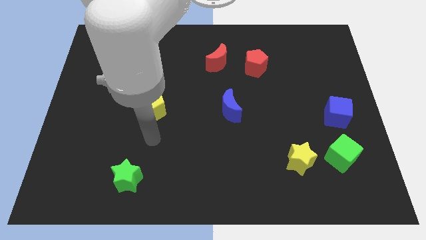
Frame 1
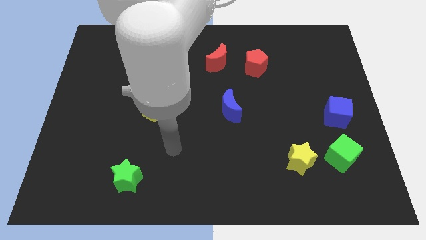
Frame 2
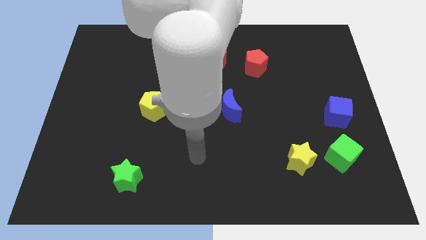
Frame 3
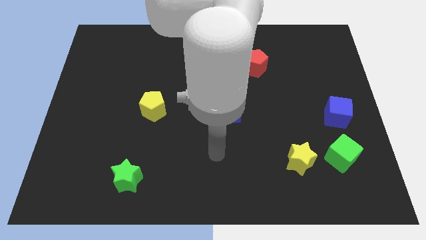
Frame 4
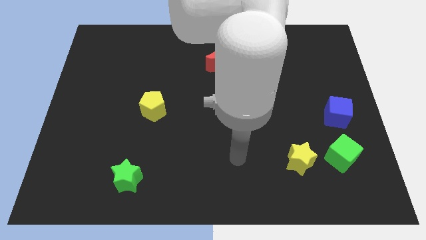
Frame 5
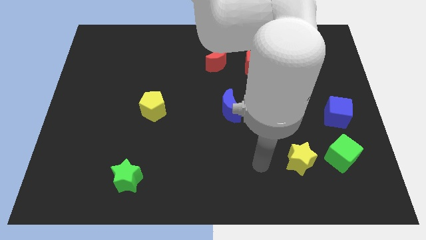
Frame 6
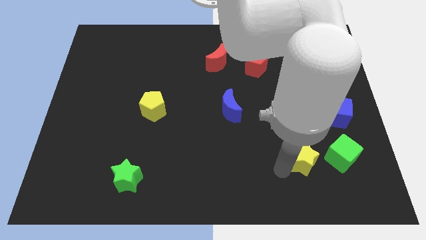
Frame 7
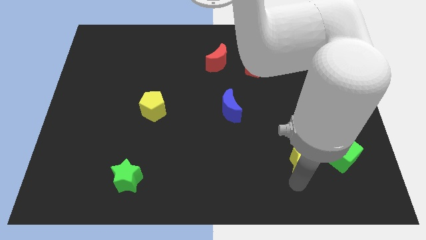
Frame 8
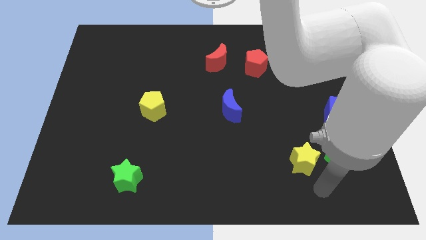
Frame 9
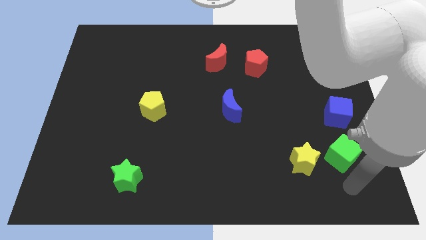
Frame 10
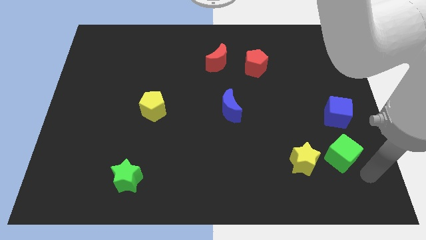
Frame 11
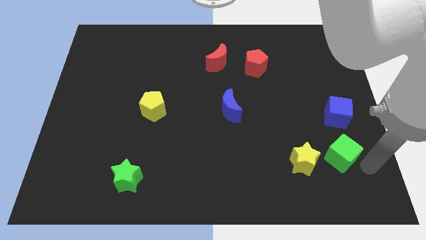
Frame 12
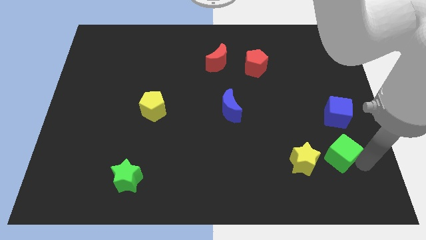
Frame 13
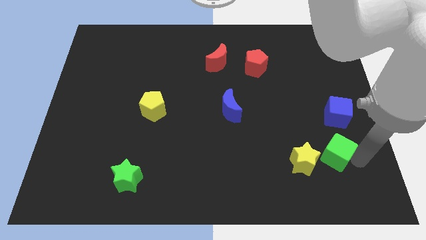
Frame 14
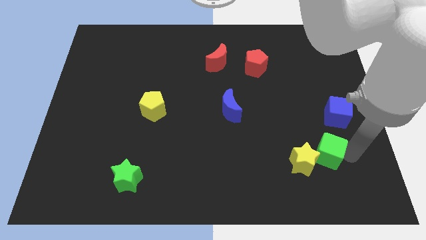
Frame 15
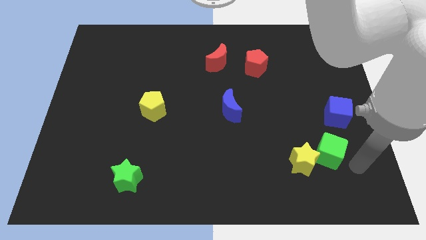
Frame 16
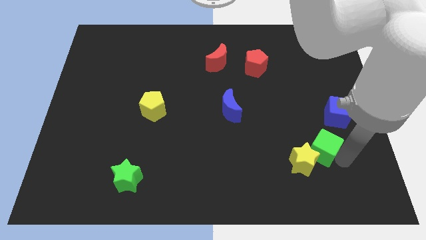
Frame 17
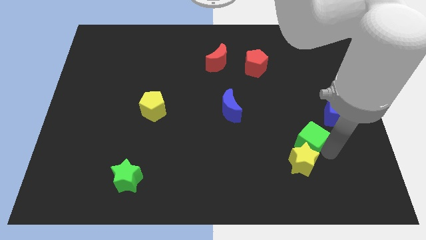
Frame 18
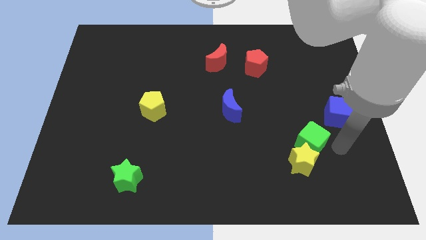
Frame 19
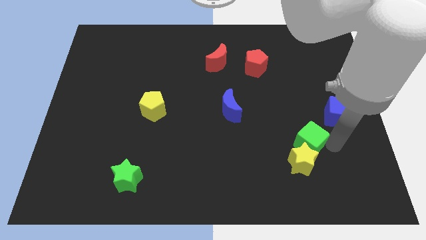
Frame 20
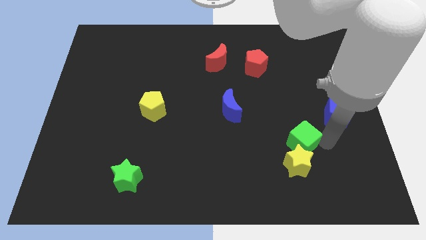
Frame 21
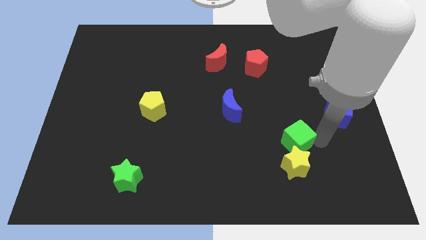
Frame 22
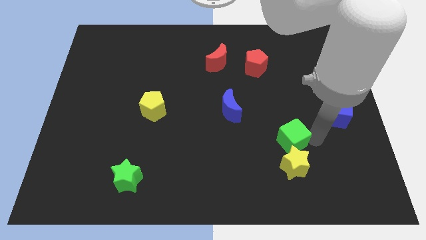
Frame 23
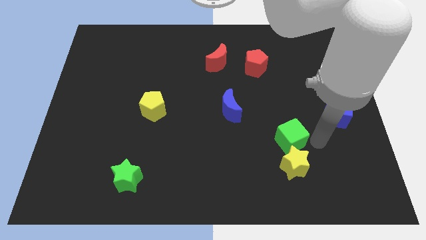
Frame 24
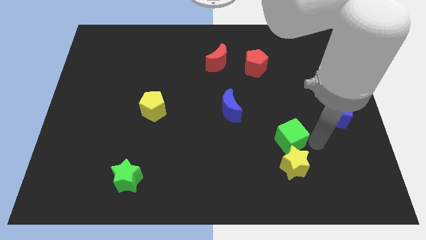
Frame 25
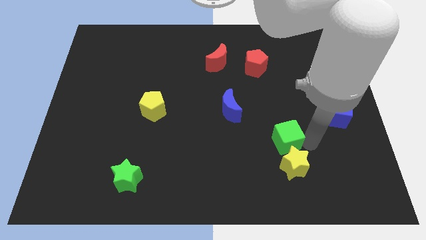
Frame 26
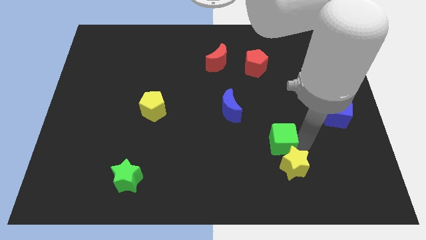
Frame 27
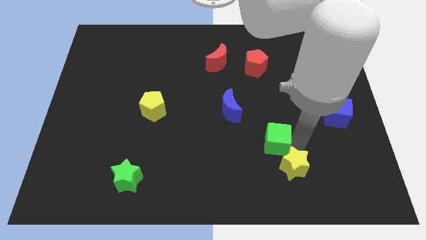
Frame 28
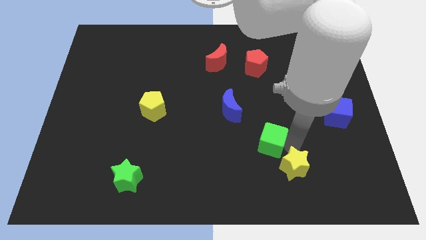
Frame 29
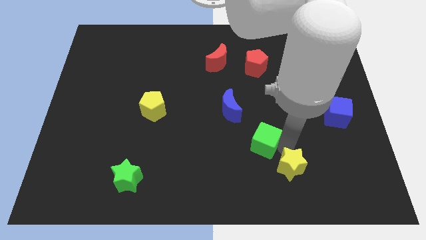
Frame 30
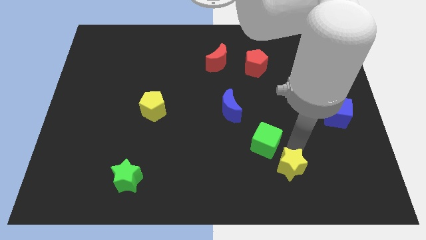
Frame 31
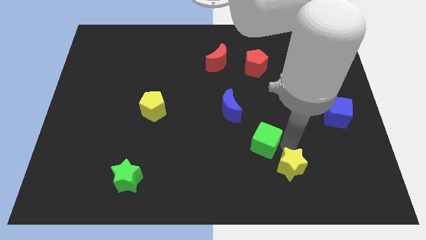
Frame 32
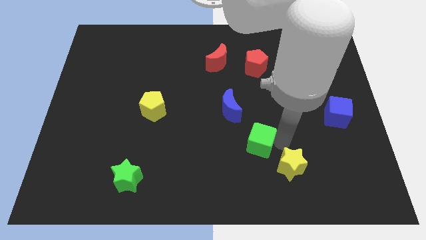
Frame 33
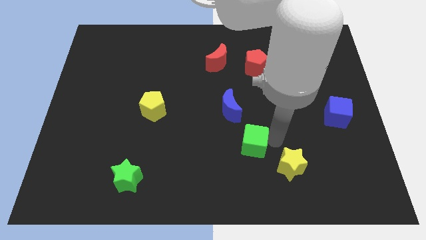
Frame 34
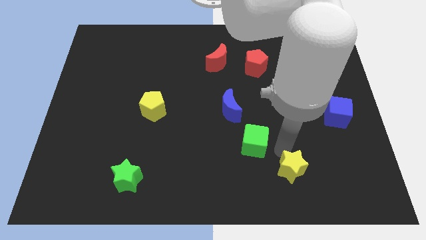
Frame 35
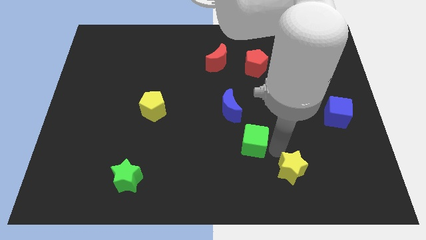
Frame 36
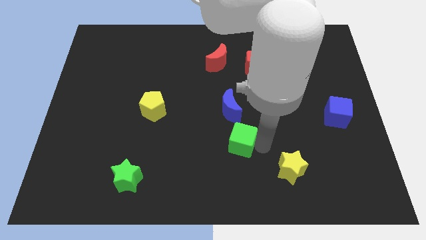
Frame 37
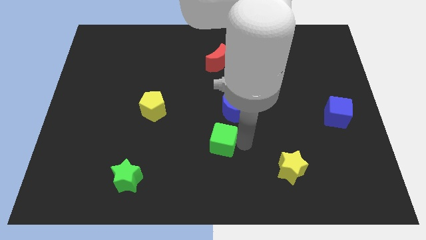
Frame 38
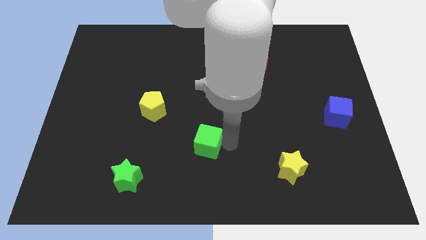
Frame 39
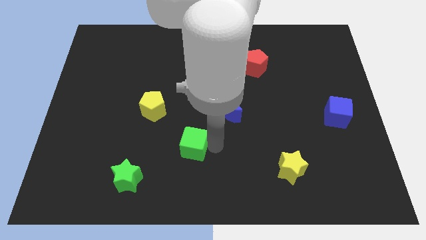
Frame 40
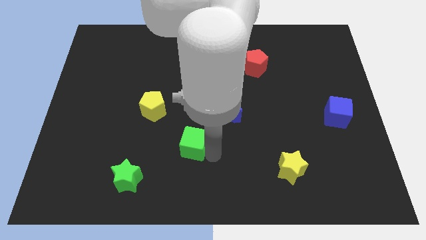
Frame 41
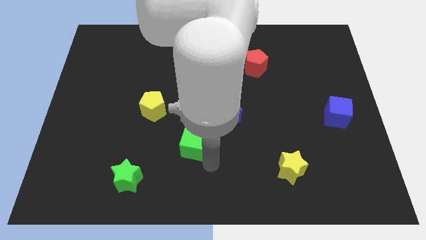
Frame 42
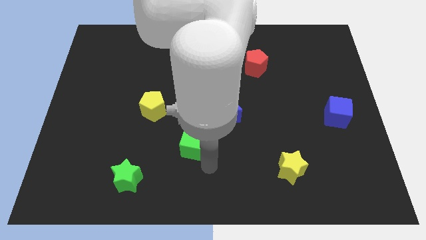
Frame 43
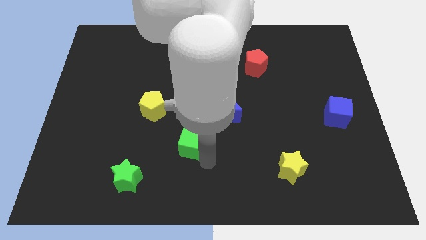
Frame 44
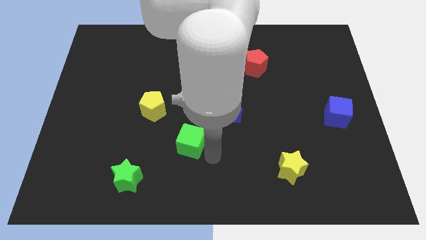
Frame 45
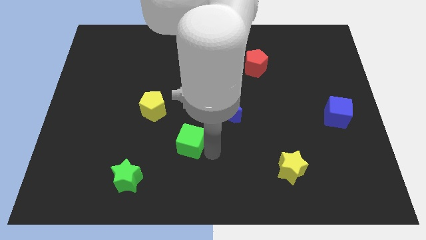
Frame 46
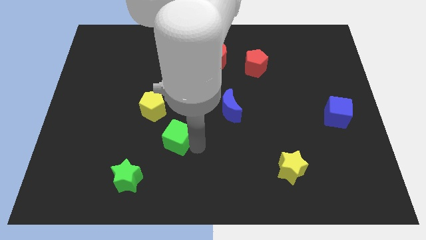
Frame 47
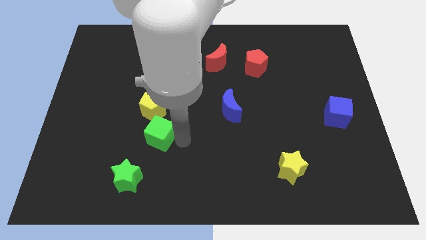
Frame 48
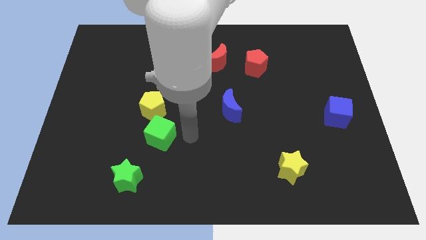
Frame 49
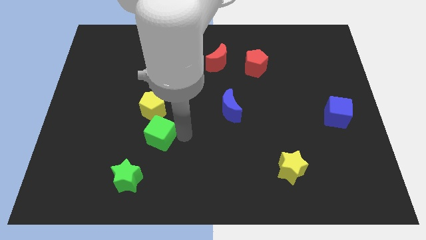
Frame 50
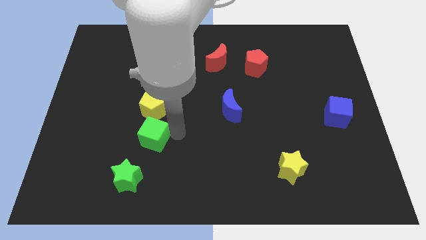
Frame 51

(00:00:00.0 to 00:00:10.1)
slide the green cube above the green star

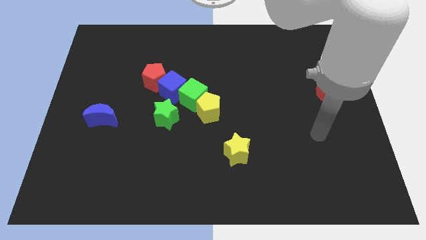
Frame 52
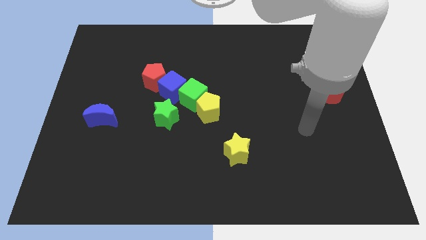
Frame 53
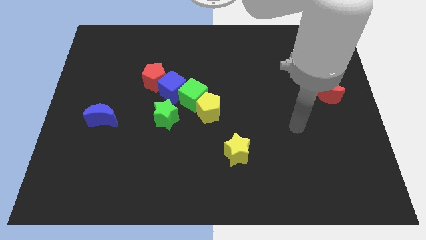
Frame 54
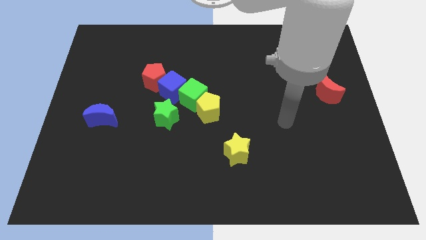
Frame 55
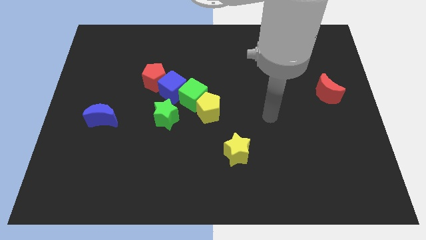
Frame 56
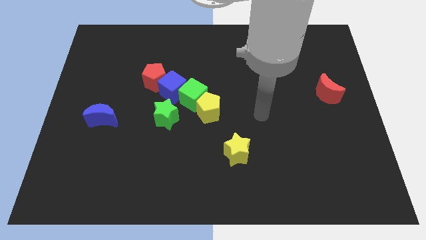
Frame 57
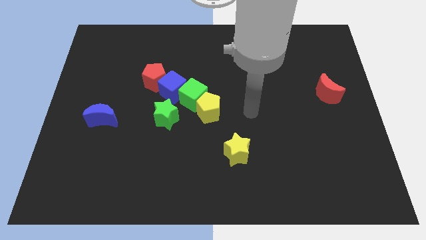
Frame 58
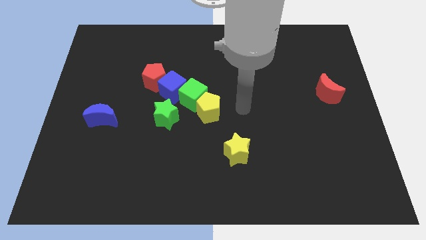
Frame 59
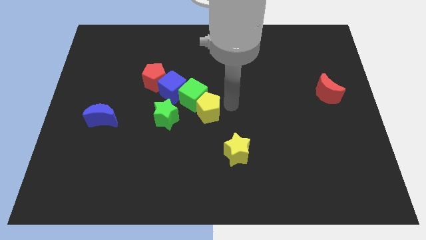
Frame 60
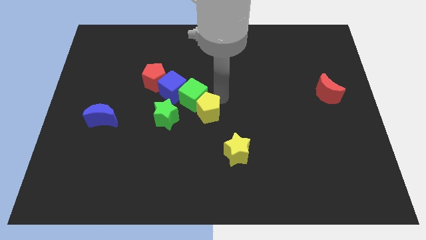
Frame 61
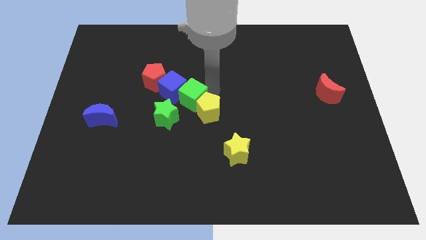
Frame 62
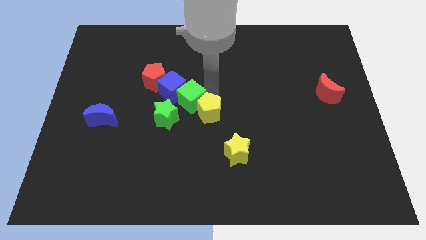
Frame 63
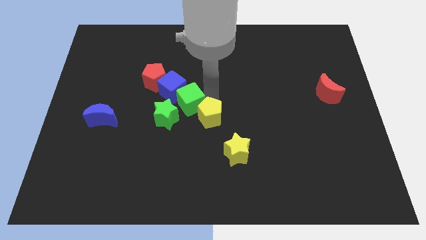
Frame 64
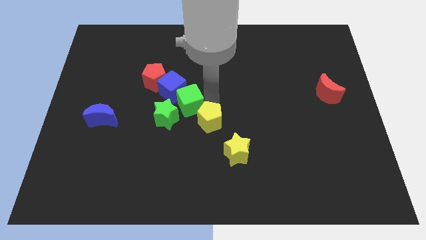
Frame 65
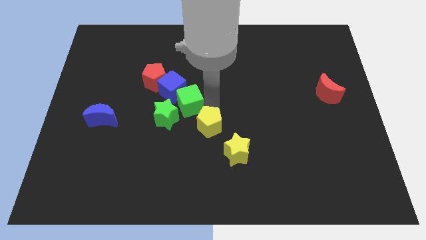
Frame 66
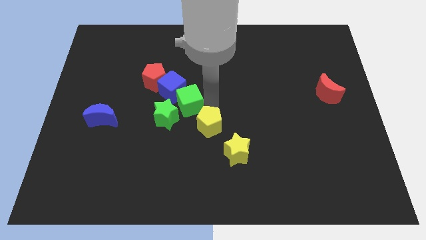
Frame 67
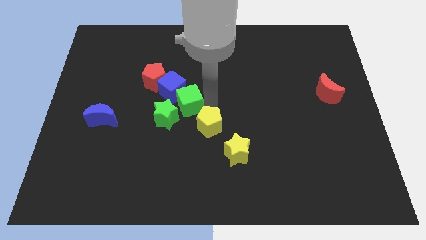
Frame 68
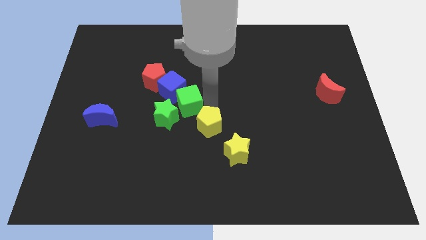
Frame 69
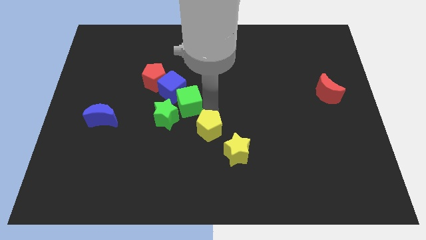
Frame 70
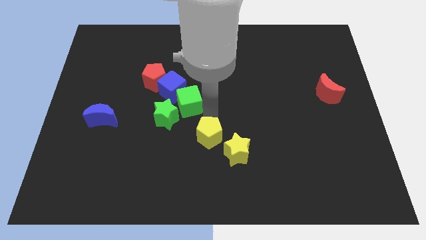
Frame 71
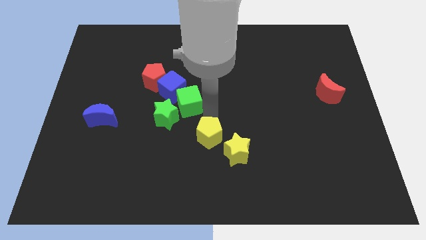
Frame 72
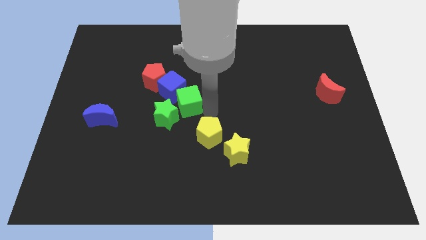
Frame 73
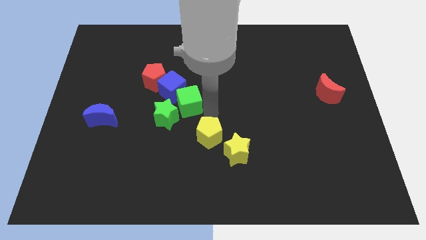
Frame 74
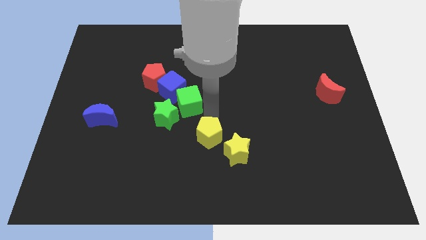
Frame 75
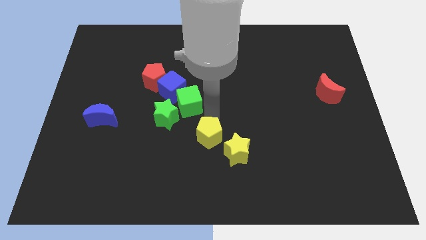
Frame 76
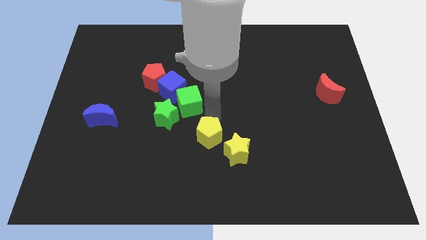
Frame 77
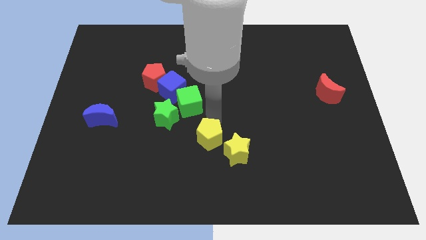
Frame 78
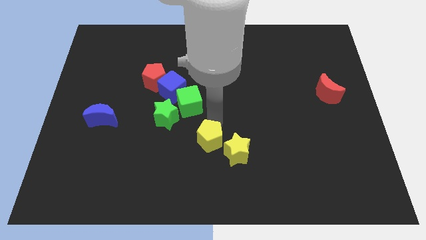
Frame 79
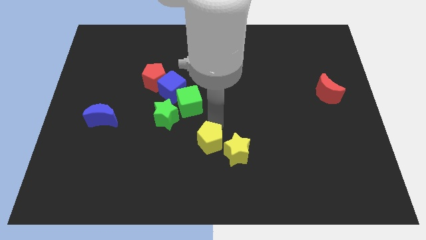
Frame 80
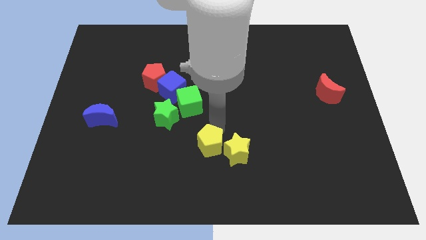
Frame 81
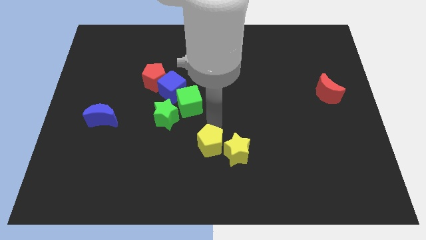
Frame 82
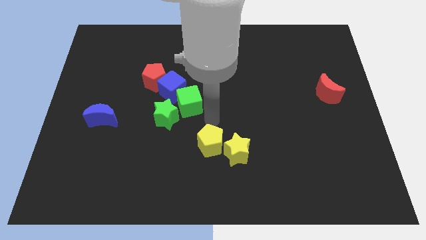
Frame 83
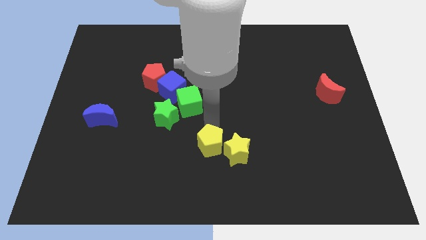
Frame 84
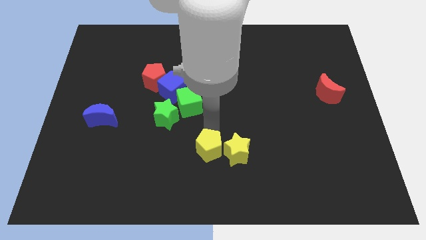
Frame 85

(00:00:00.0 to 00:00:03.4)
put the yellow pentagon diagonally down and to the left of the yellow star
